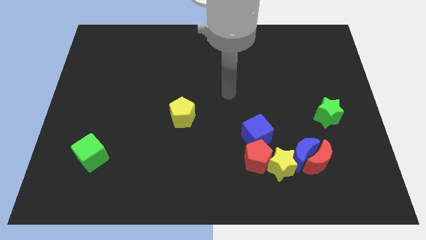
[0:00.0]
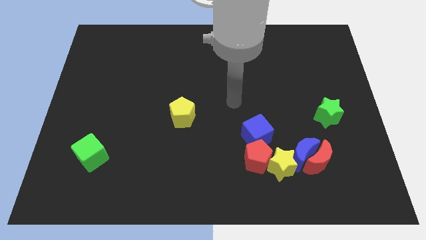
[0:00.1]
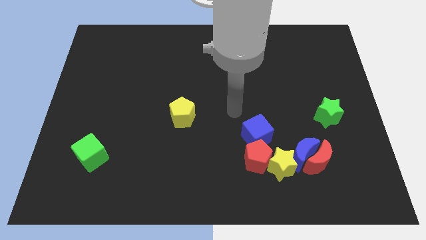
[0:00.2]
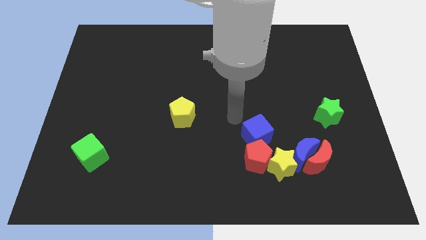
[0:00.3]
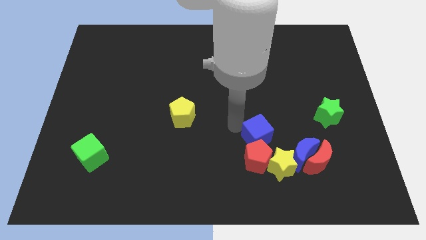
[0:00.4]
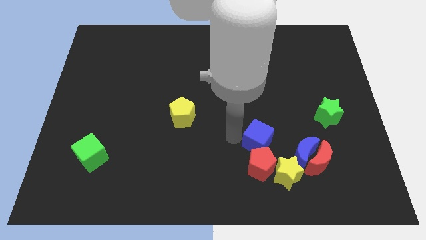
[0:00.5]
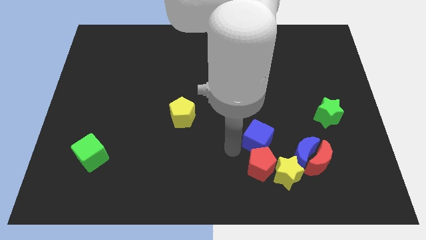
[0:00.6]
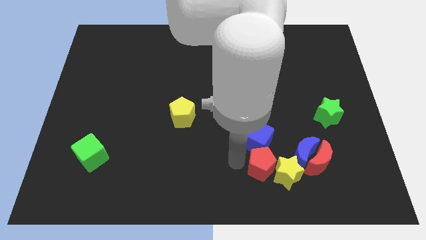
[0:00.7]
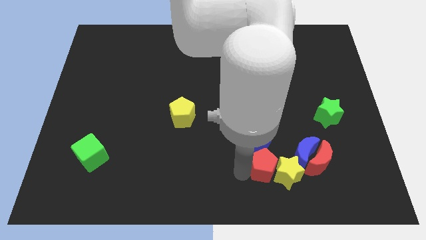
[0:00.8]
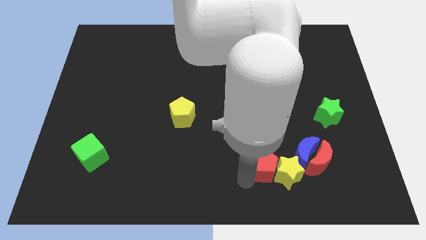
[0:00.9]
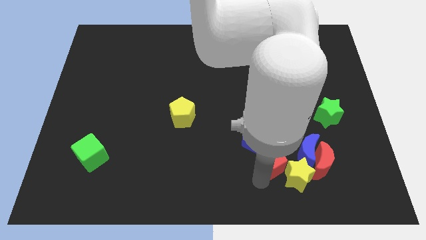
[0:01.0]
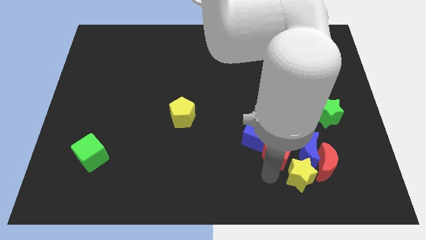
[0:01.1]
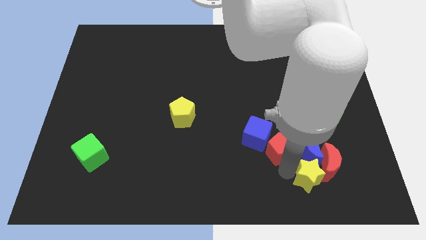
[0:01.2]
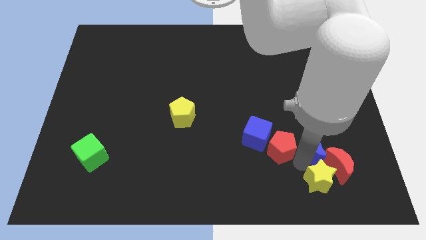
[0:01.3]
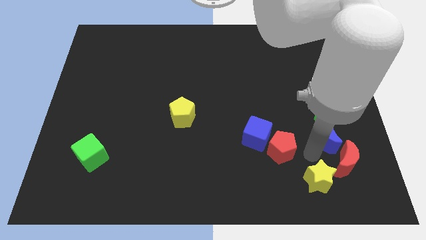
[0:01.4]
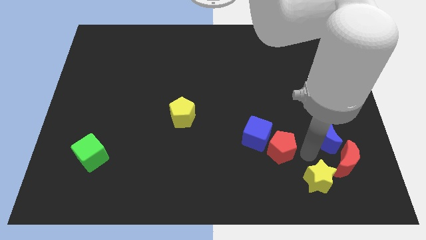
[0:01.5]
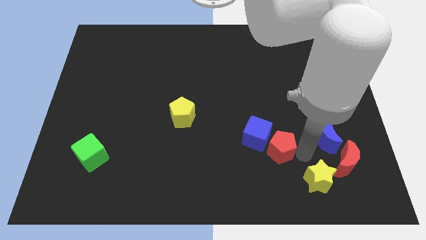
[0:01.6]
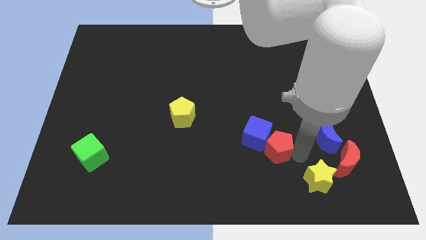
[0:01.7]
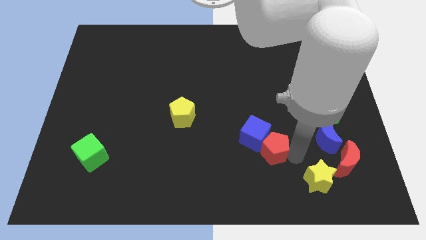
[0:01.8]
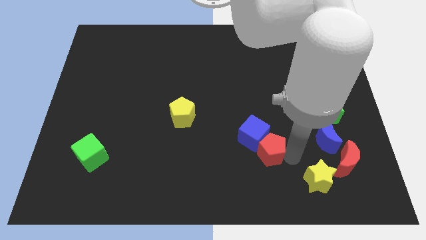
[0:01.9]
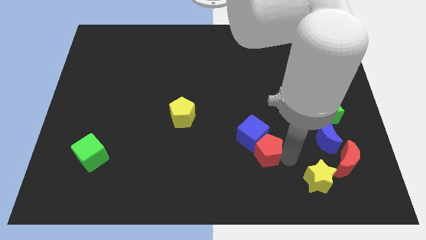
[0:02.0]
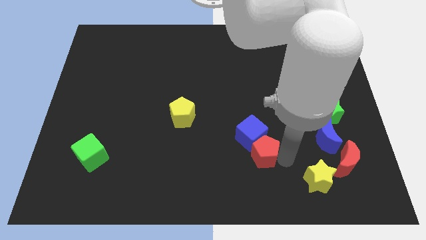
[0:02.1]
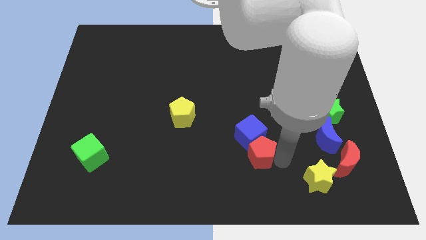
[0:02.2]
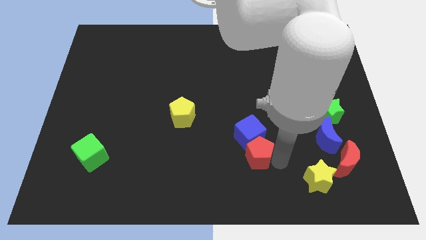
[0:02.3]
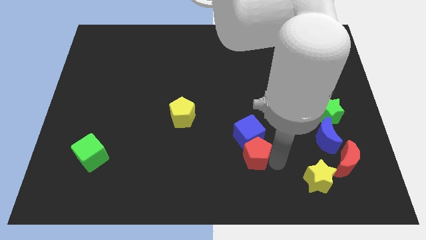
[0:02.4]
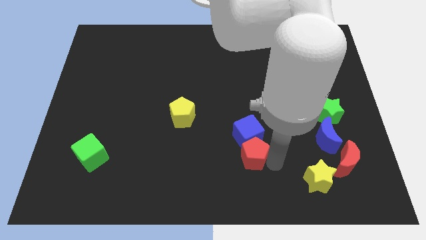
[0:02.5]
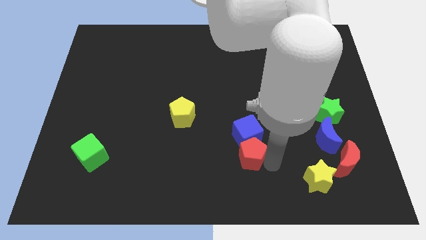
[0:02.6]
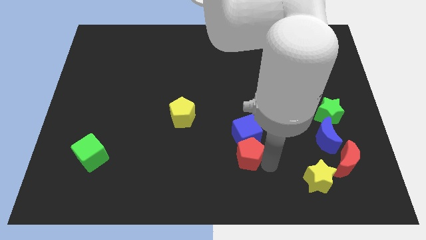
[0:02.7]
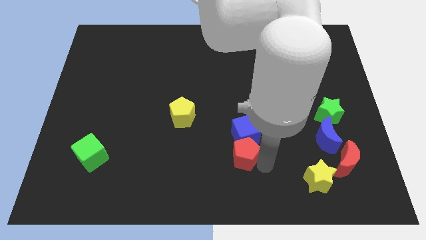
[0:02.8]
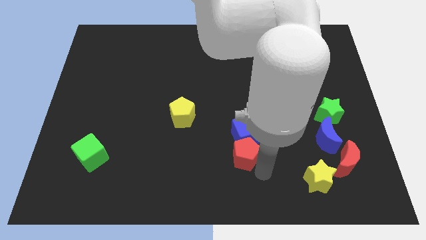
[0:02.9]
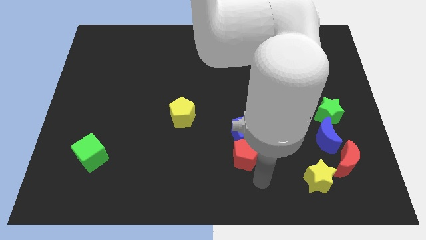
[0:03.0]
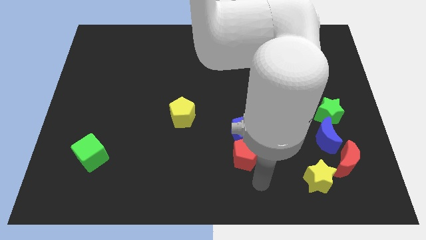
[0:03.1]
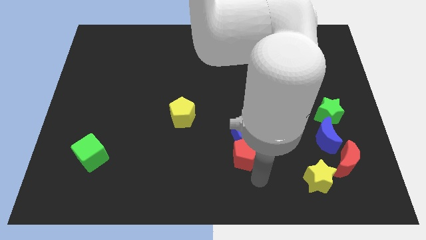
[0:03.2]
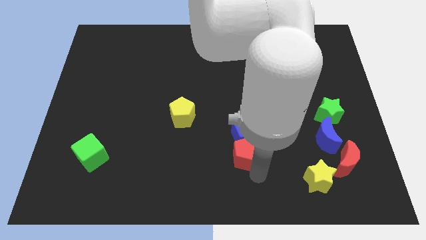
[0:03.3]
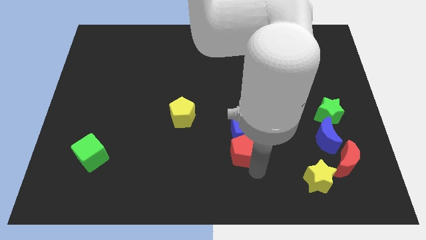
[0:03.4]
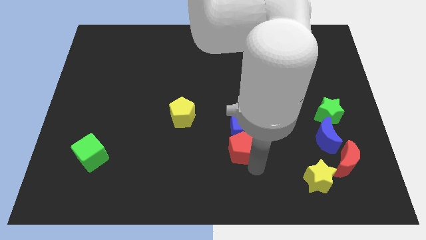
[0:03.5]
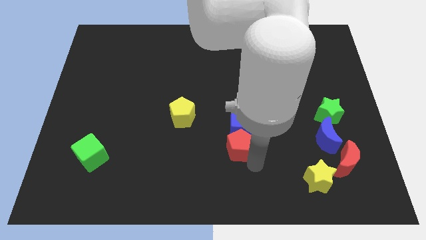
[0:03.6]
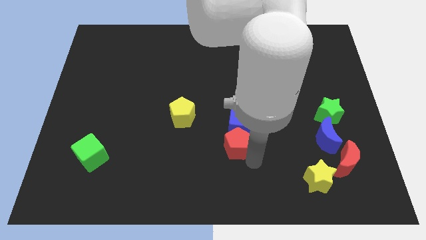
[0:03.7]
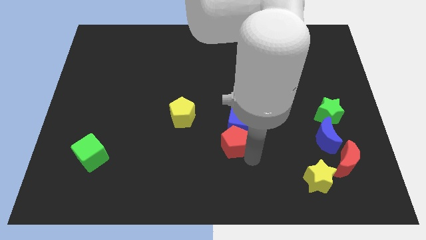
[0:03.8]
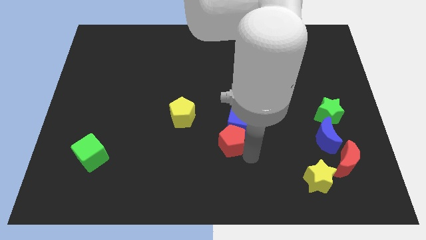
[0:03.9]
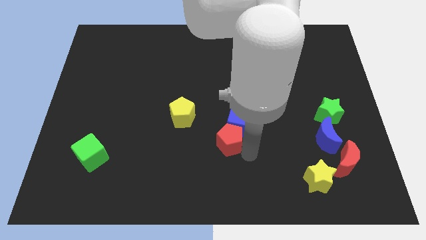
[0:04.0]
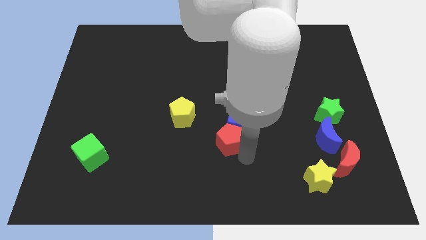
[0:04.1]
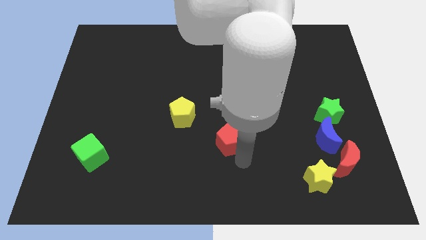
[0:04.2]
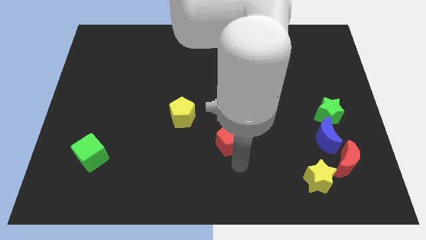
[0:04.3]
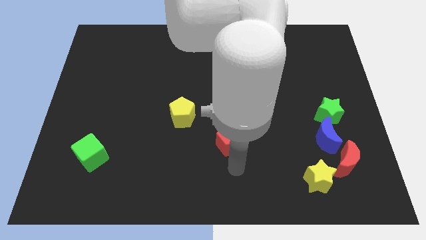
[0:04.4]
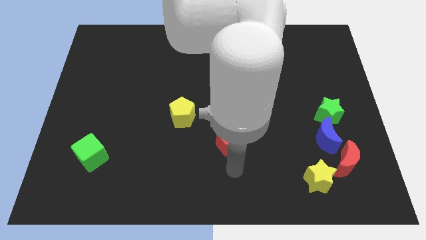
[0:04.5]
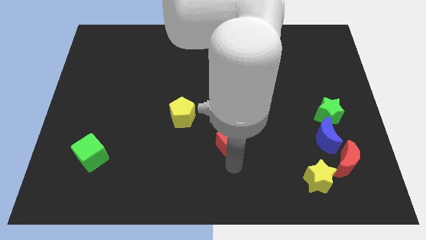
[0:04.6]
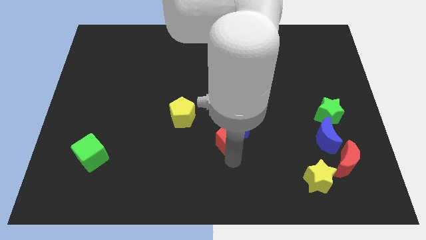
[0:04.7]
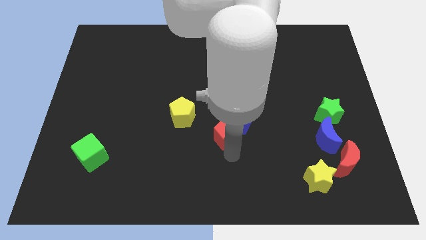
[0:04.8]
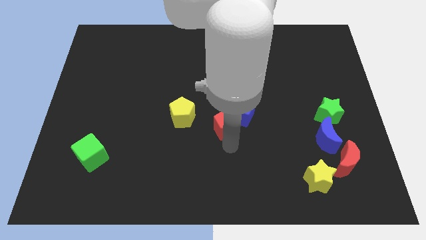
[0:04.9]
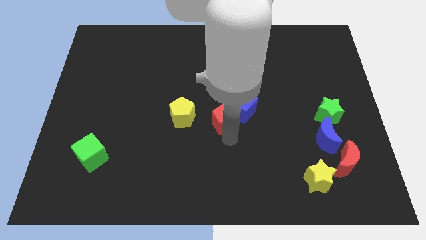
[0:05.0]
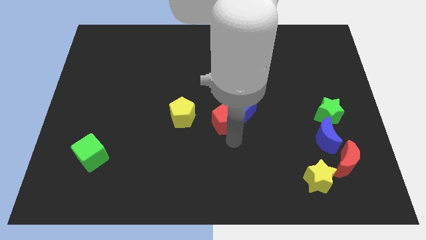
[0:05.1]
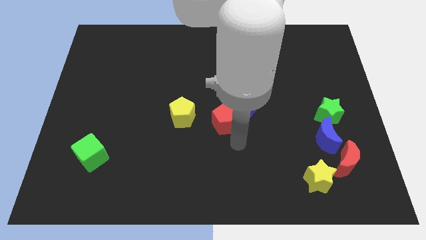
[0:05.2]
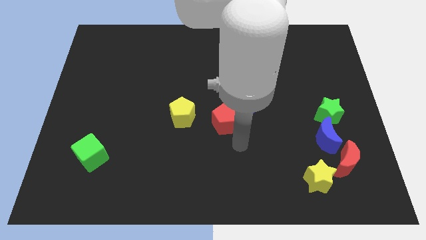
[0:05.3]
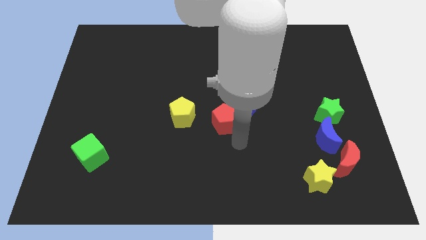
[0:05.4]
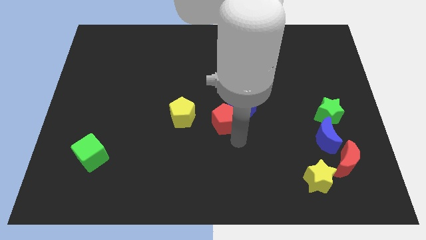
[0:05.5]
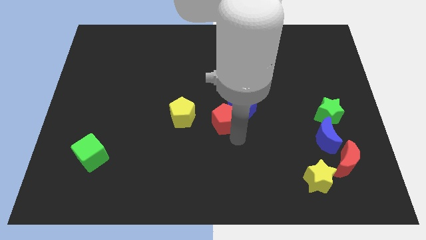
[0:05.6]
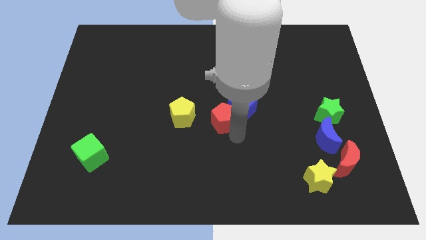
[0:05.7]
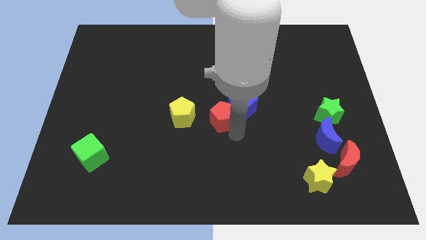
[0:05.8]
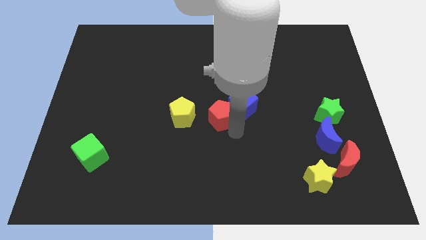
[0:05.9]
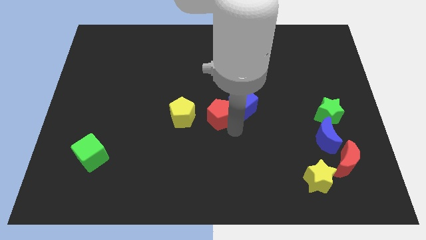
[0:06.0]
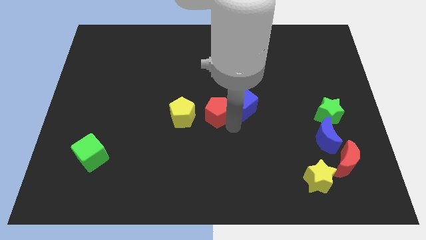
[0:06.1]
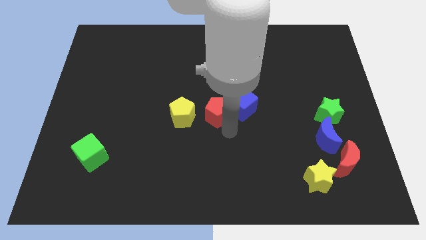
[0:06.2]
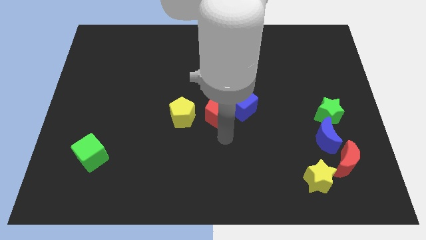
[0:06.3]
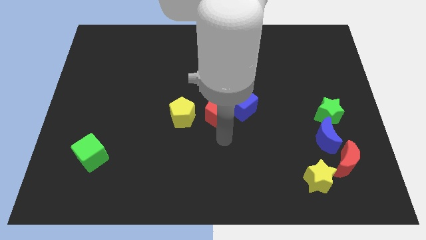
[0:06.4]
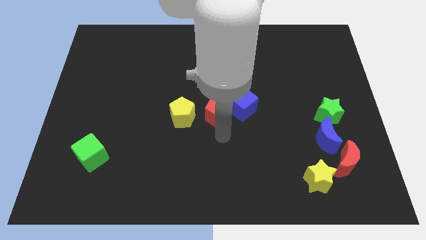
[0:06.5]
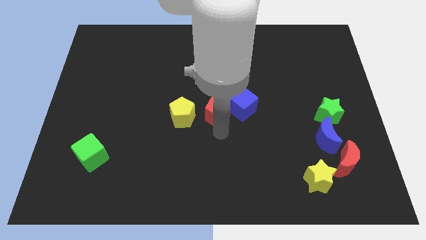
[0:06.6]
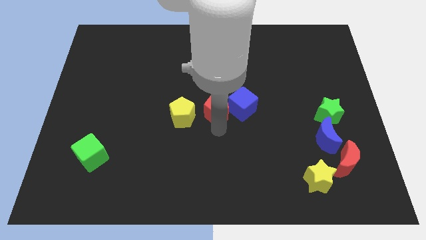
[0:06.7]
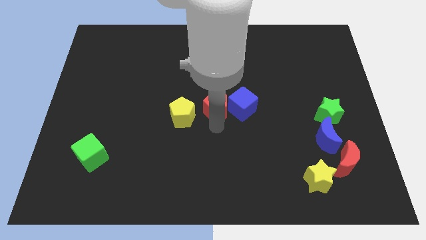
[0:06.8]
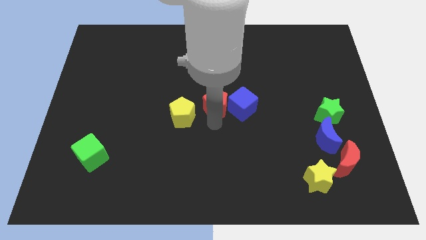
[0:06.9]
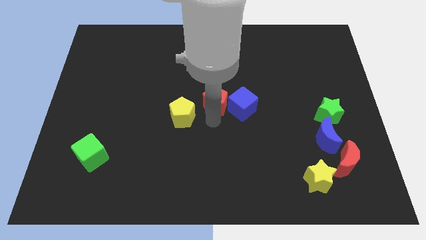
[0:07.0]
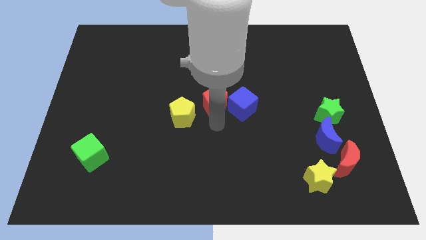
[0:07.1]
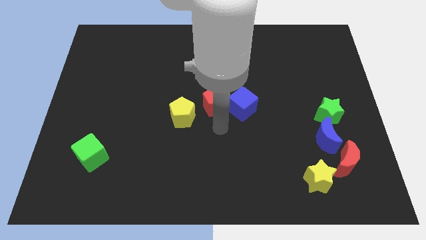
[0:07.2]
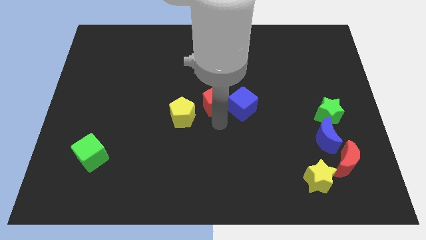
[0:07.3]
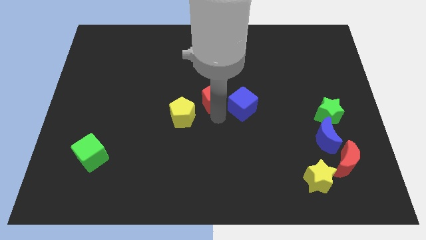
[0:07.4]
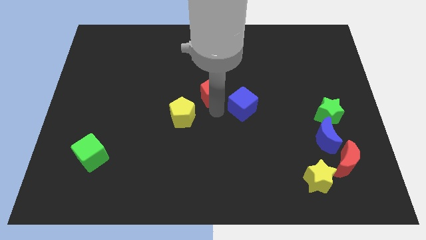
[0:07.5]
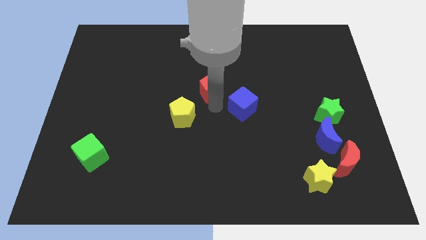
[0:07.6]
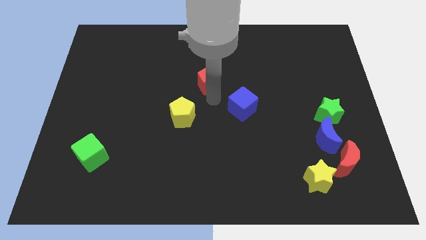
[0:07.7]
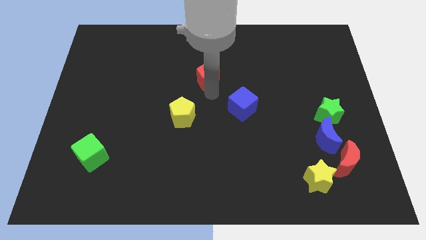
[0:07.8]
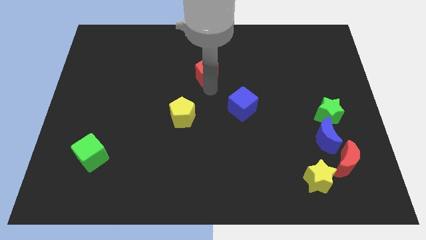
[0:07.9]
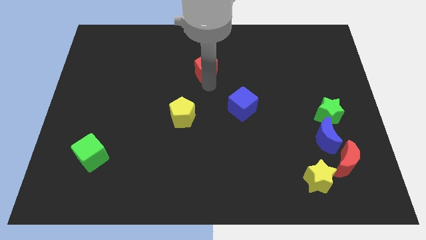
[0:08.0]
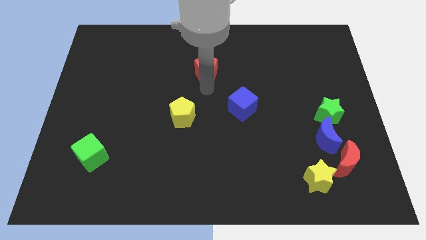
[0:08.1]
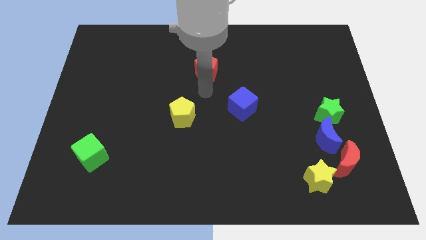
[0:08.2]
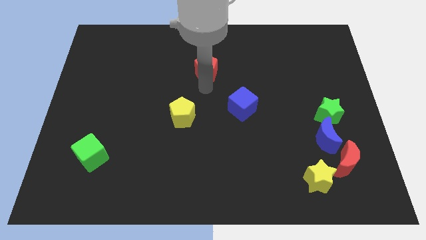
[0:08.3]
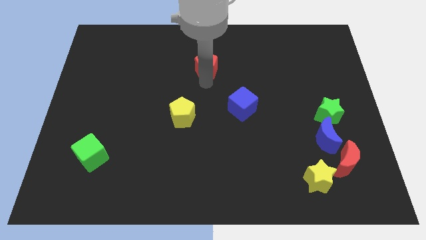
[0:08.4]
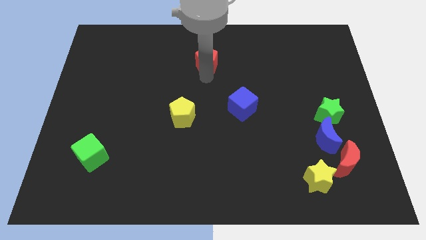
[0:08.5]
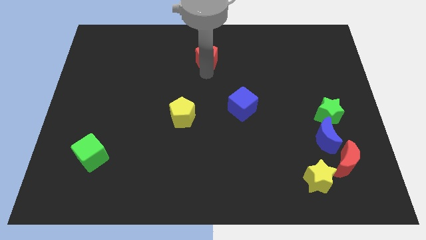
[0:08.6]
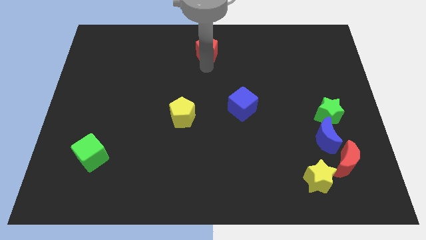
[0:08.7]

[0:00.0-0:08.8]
slide the red pentagon to the towards your base

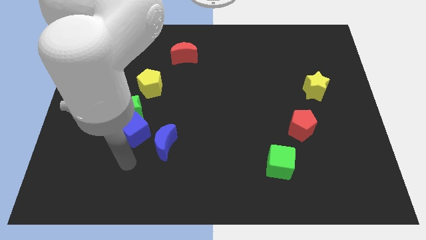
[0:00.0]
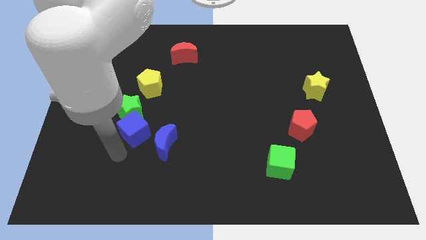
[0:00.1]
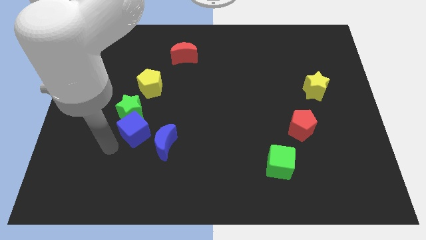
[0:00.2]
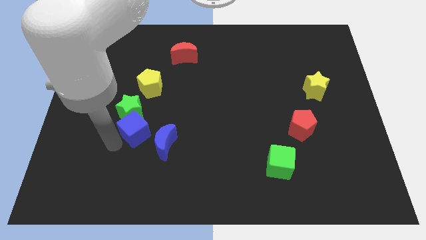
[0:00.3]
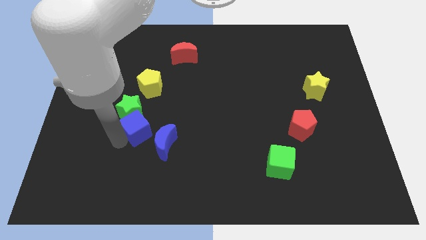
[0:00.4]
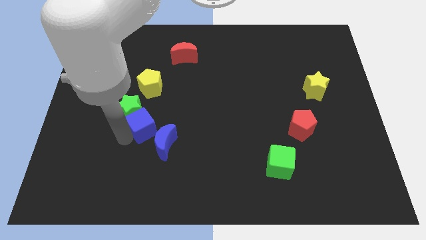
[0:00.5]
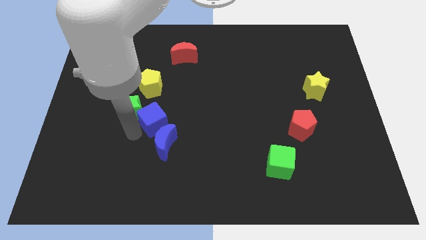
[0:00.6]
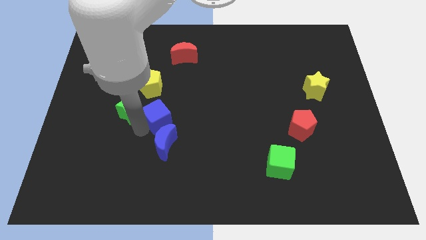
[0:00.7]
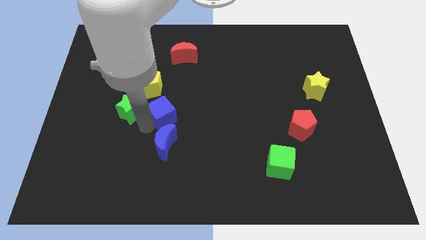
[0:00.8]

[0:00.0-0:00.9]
move the blue cube to the center
